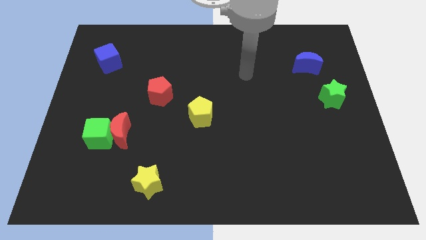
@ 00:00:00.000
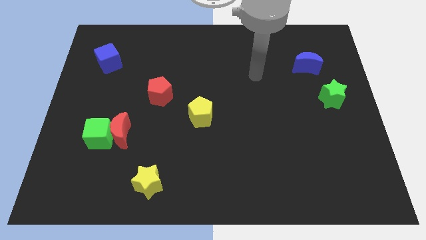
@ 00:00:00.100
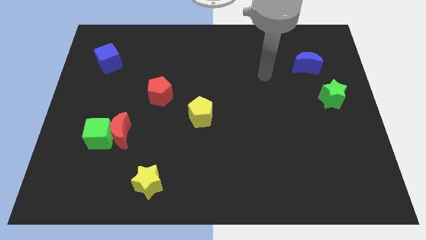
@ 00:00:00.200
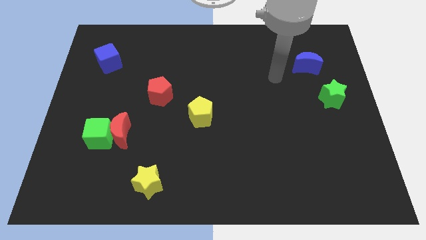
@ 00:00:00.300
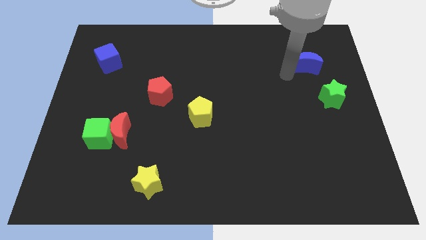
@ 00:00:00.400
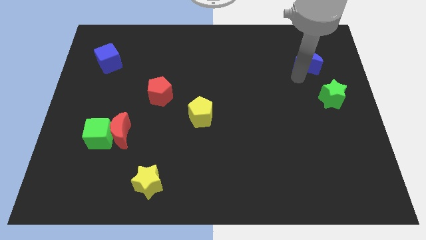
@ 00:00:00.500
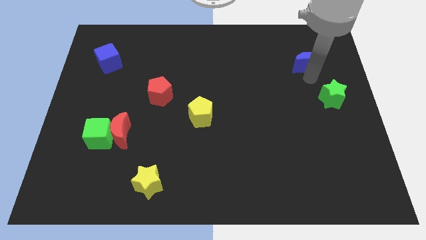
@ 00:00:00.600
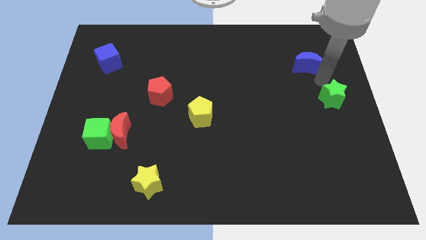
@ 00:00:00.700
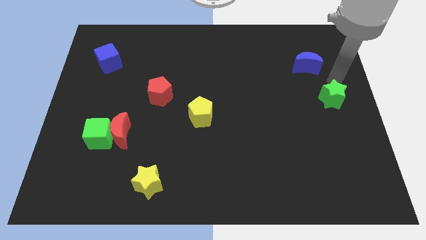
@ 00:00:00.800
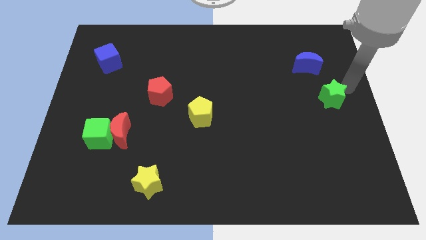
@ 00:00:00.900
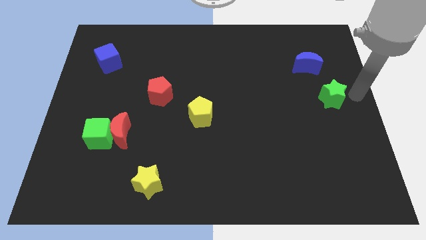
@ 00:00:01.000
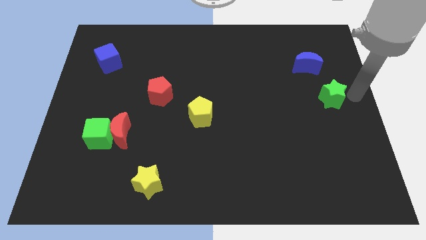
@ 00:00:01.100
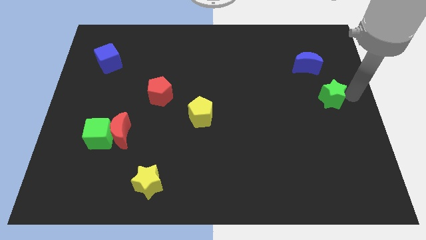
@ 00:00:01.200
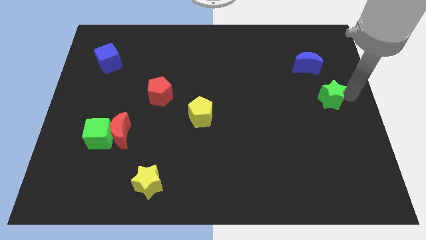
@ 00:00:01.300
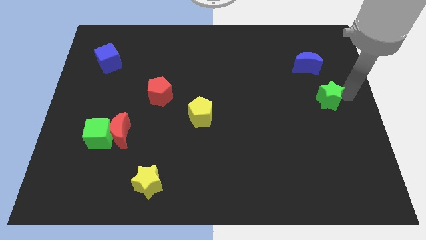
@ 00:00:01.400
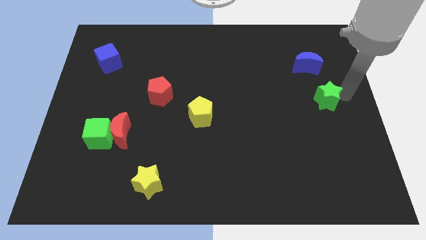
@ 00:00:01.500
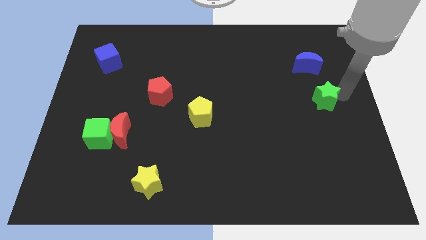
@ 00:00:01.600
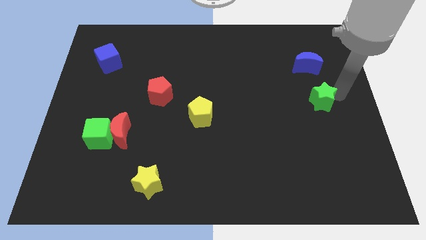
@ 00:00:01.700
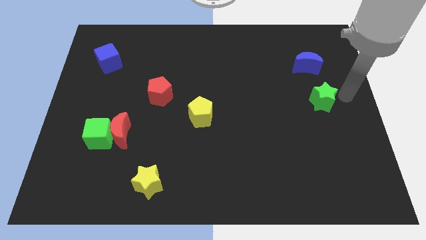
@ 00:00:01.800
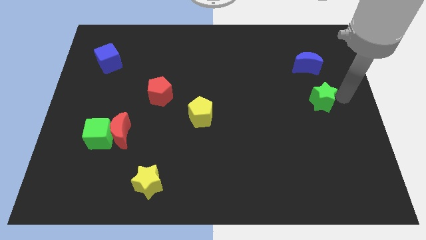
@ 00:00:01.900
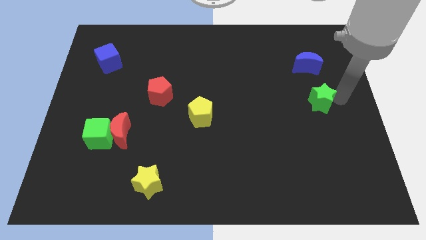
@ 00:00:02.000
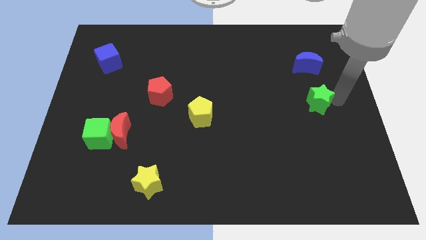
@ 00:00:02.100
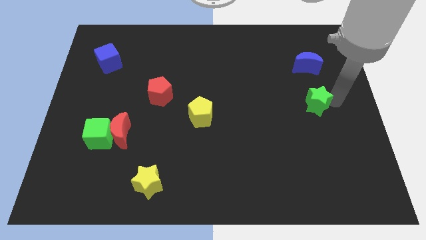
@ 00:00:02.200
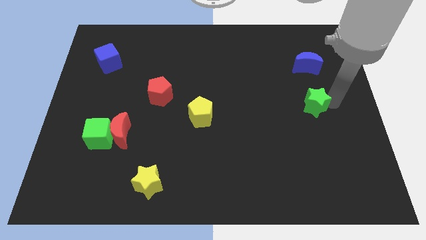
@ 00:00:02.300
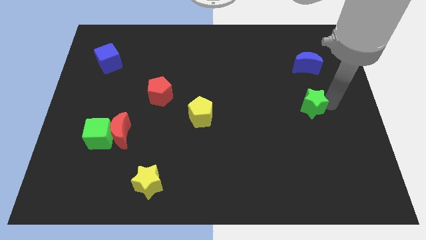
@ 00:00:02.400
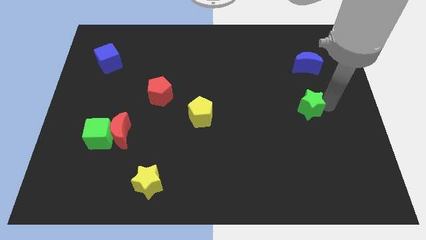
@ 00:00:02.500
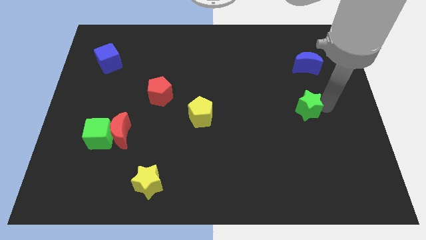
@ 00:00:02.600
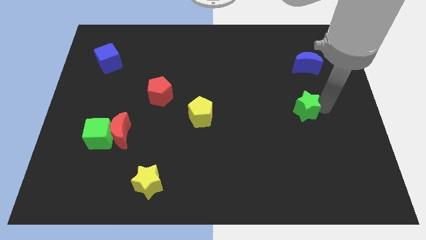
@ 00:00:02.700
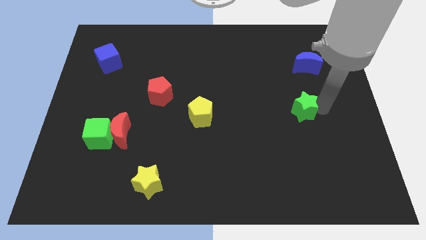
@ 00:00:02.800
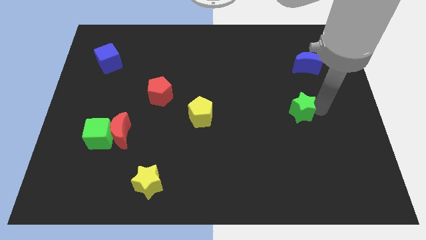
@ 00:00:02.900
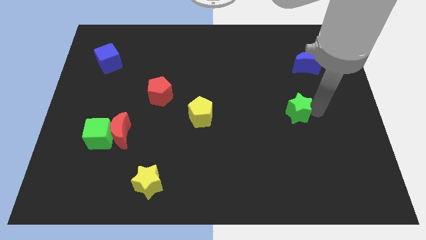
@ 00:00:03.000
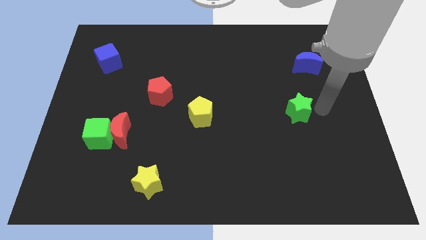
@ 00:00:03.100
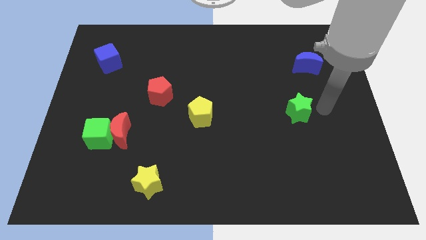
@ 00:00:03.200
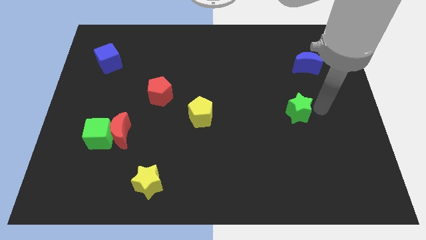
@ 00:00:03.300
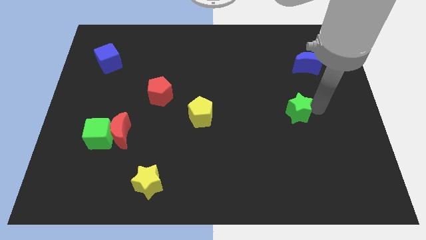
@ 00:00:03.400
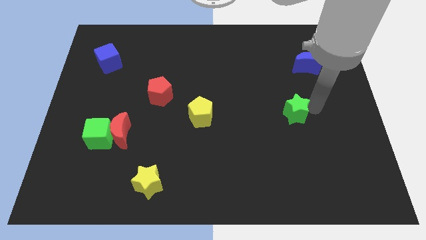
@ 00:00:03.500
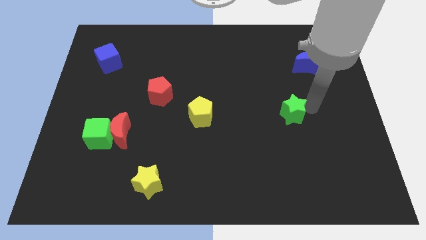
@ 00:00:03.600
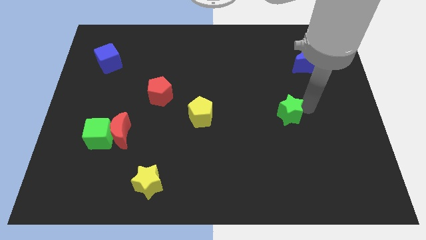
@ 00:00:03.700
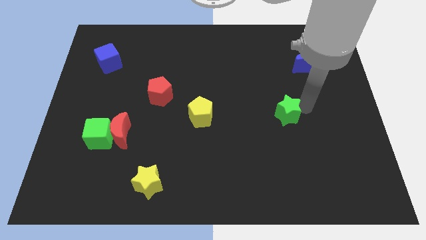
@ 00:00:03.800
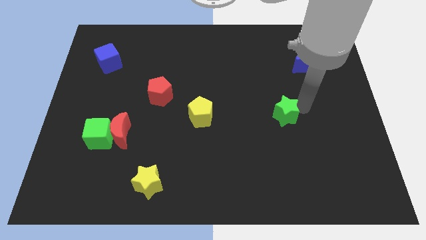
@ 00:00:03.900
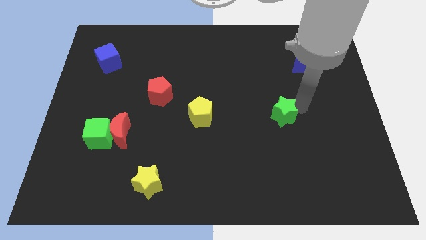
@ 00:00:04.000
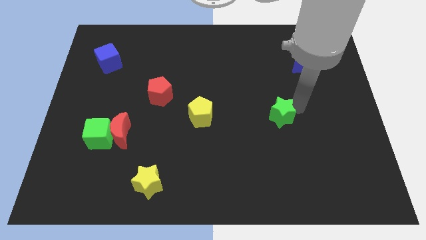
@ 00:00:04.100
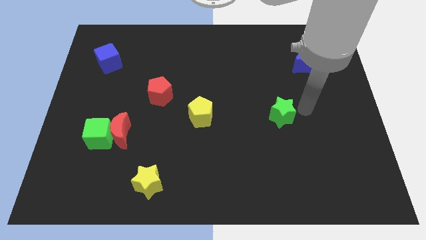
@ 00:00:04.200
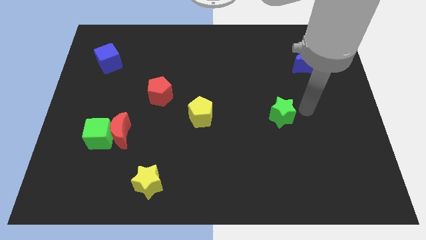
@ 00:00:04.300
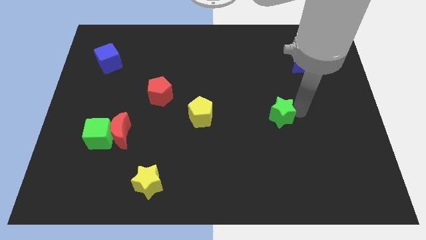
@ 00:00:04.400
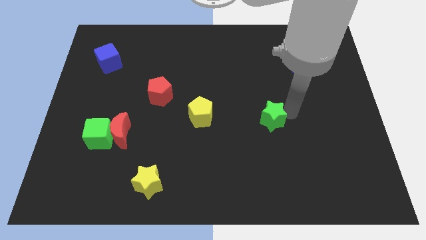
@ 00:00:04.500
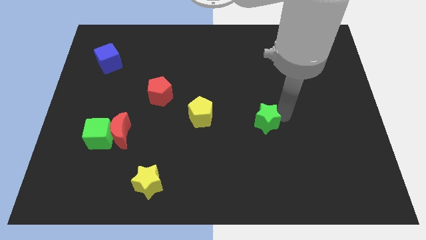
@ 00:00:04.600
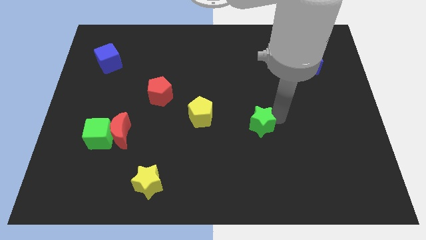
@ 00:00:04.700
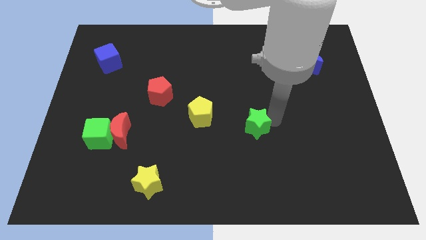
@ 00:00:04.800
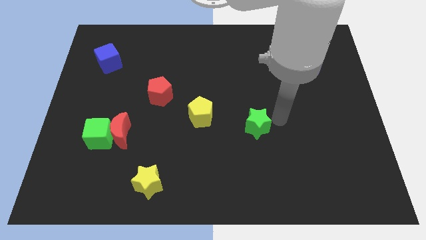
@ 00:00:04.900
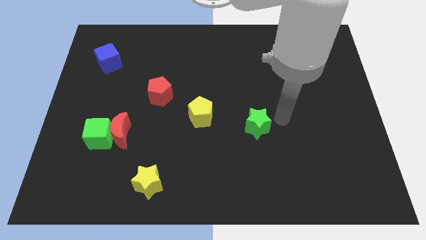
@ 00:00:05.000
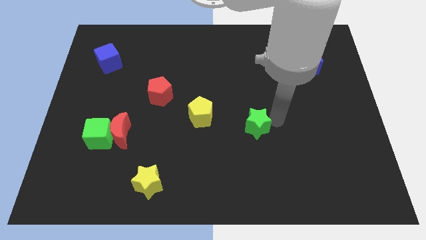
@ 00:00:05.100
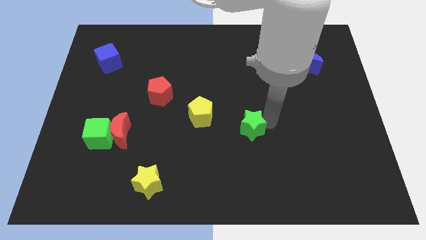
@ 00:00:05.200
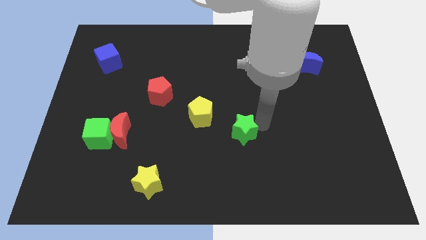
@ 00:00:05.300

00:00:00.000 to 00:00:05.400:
push the green star to the bottom right of the yellow pentagon
